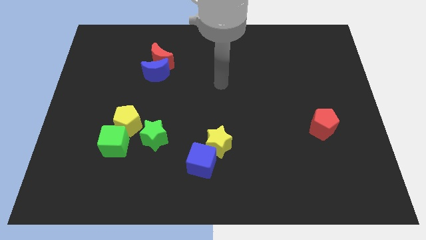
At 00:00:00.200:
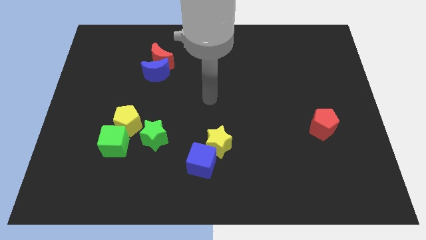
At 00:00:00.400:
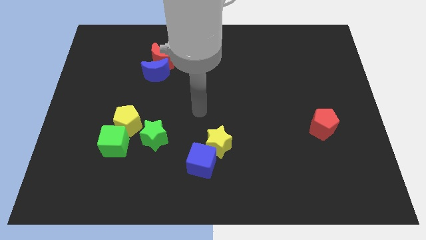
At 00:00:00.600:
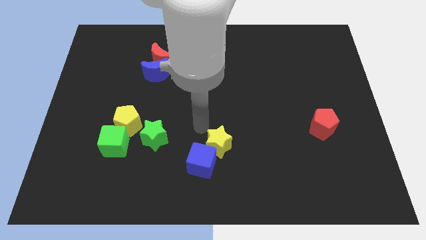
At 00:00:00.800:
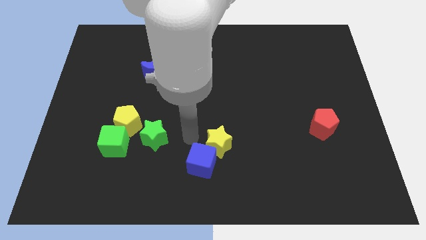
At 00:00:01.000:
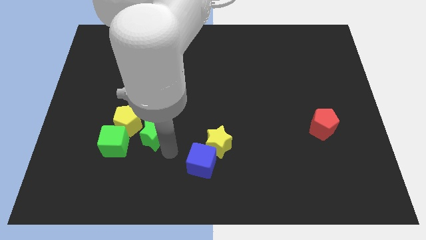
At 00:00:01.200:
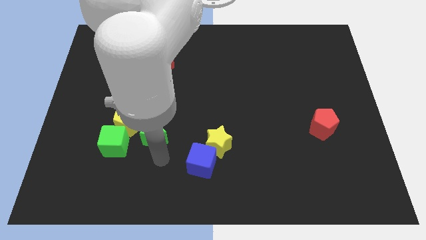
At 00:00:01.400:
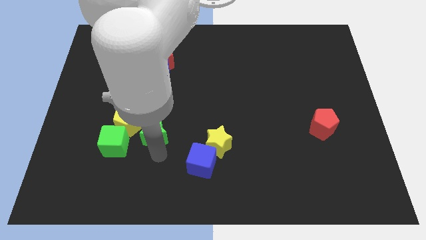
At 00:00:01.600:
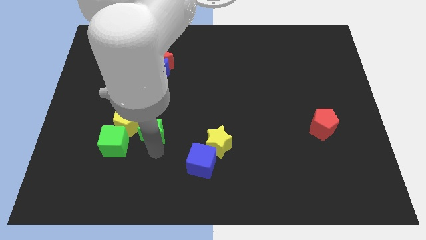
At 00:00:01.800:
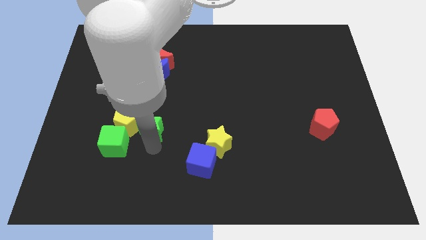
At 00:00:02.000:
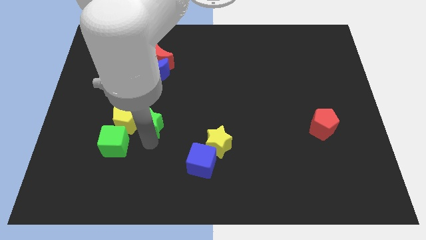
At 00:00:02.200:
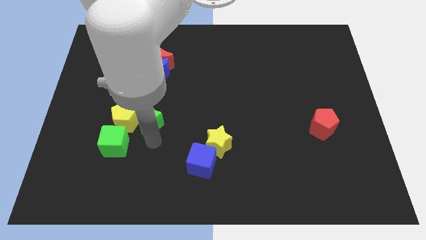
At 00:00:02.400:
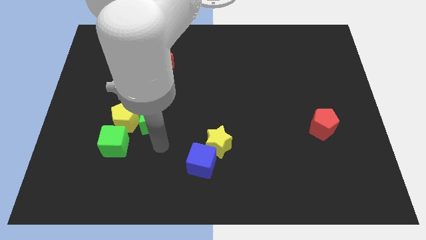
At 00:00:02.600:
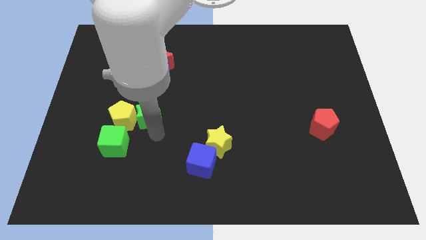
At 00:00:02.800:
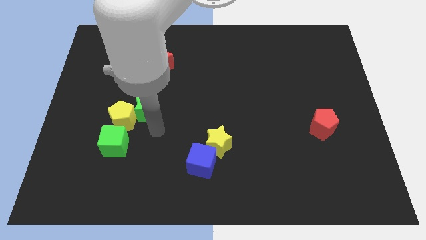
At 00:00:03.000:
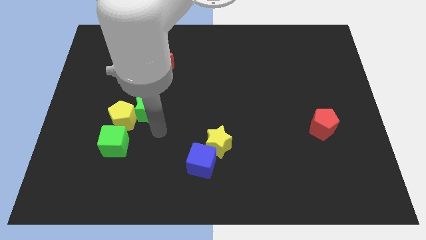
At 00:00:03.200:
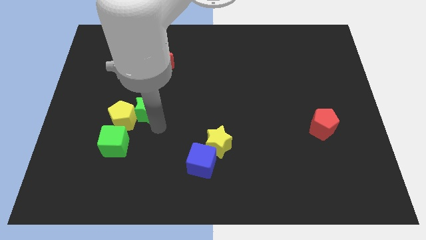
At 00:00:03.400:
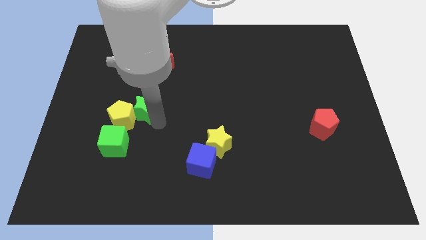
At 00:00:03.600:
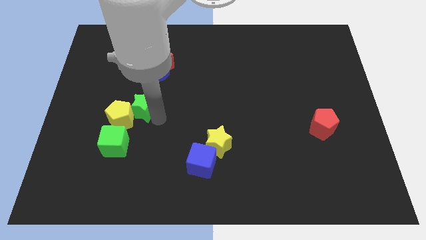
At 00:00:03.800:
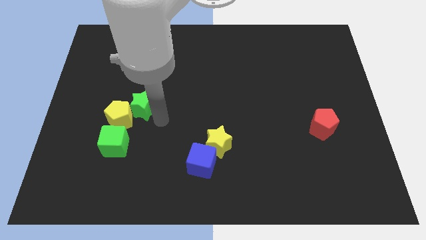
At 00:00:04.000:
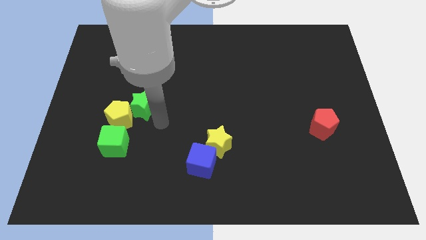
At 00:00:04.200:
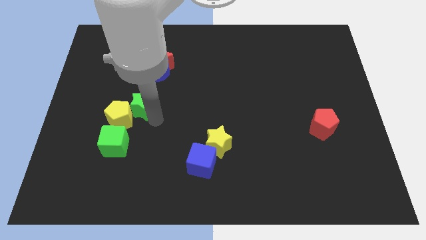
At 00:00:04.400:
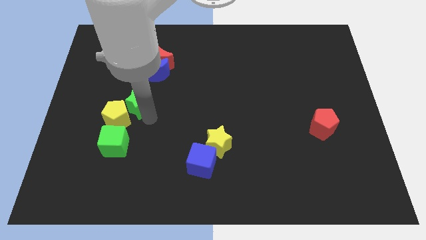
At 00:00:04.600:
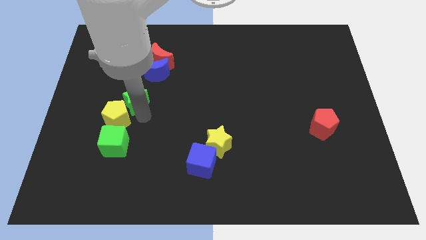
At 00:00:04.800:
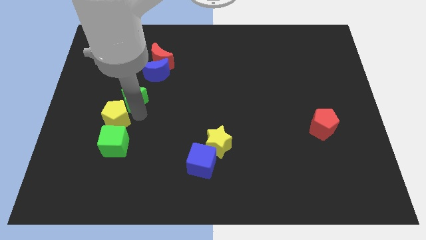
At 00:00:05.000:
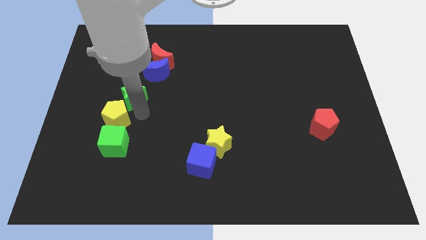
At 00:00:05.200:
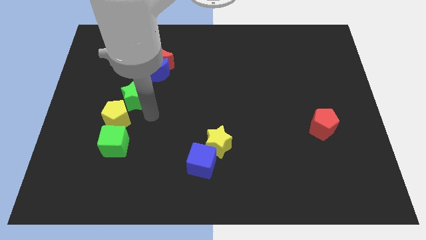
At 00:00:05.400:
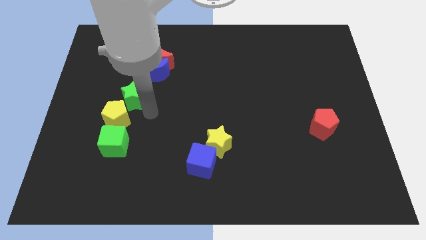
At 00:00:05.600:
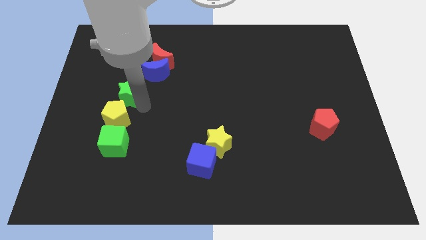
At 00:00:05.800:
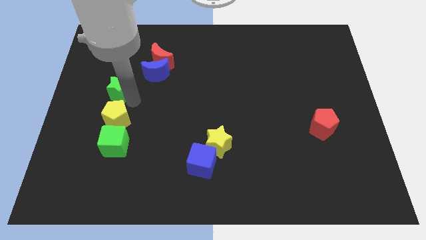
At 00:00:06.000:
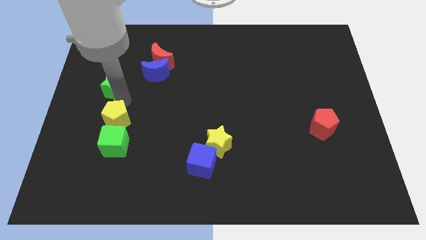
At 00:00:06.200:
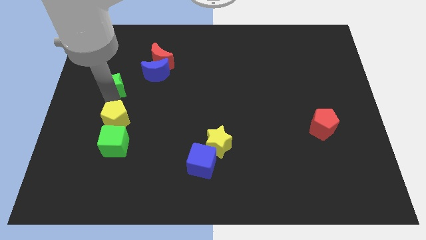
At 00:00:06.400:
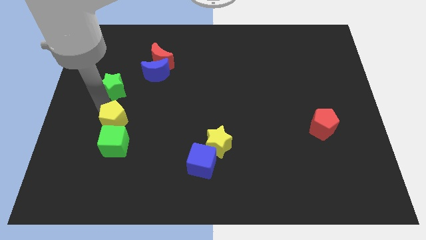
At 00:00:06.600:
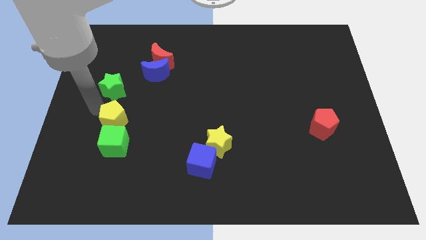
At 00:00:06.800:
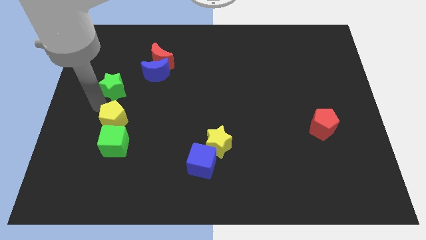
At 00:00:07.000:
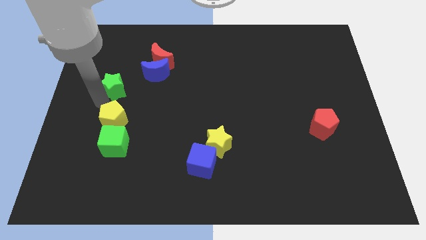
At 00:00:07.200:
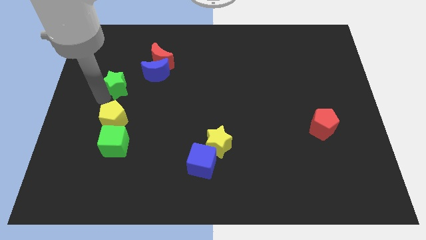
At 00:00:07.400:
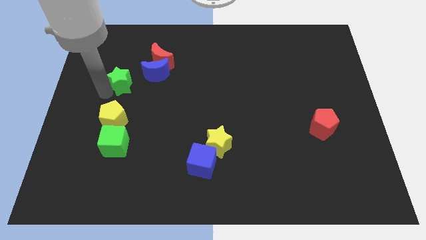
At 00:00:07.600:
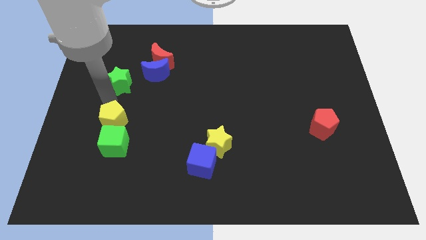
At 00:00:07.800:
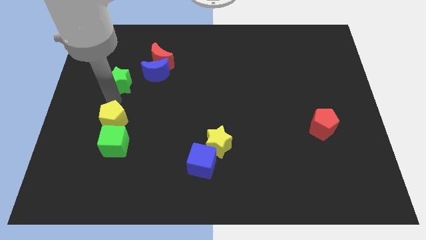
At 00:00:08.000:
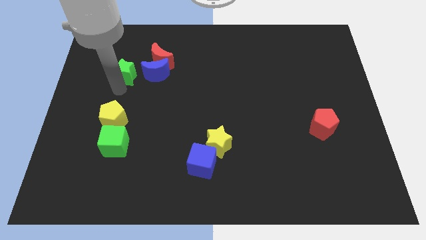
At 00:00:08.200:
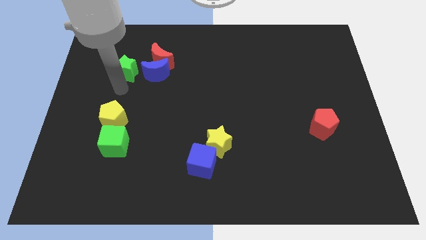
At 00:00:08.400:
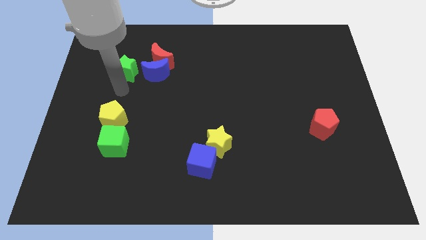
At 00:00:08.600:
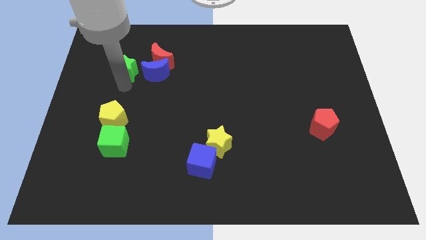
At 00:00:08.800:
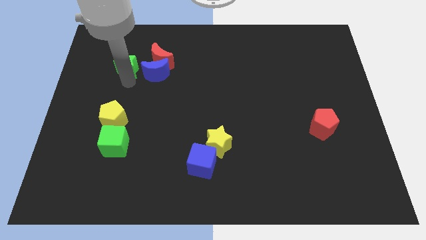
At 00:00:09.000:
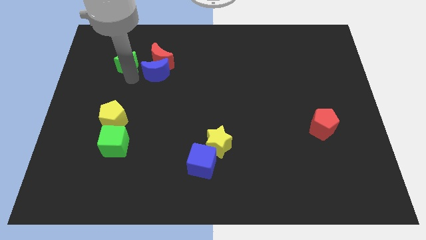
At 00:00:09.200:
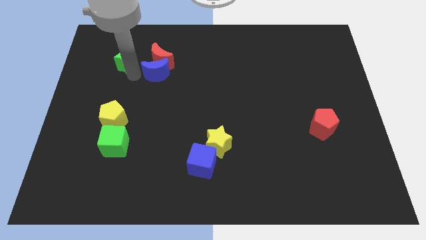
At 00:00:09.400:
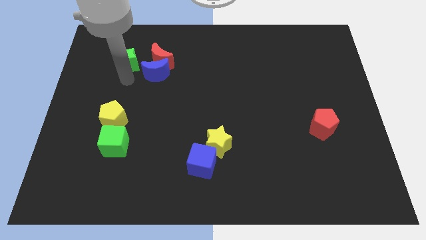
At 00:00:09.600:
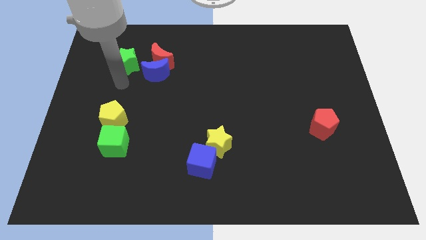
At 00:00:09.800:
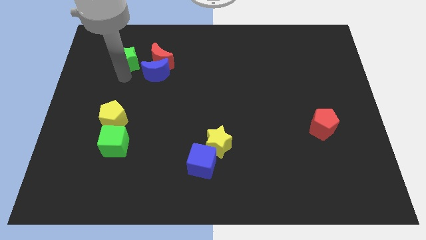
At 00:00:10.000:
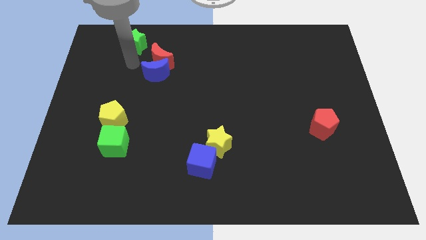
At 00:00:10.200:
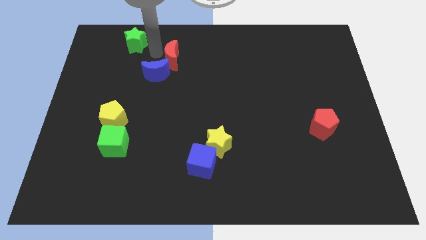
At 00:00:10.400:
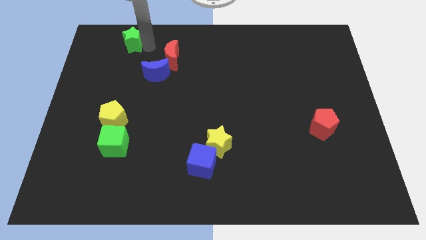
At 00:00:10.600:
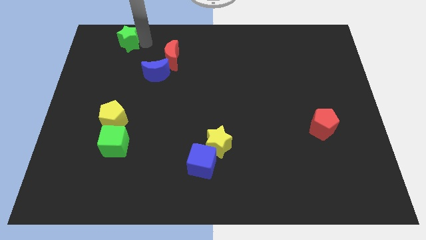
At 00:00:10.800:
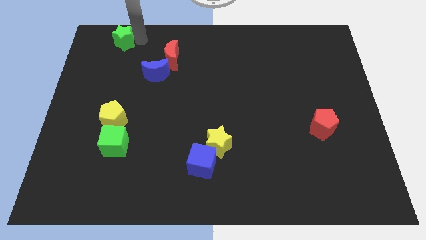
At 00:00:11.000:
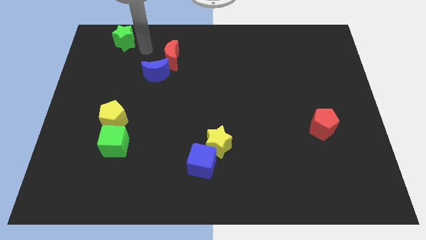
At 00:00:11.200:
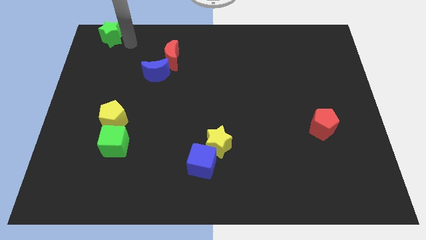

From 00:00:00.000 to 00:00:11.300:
slide the green star to the top left

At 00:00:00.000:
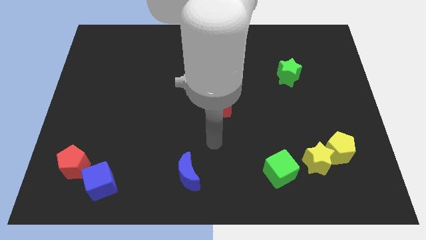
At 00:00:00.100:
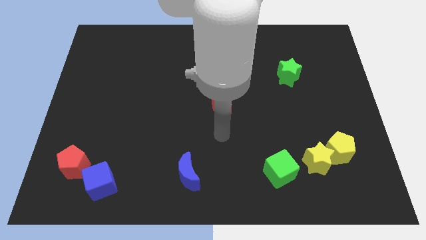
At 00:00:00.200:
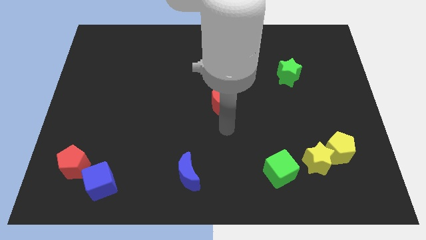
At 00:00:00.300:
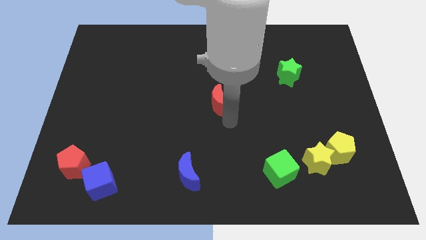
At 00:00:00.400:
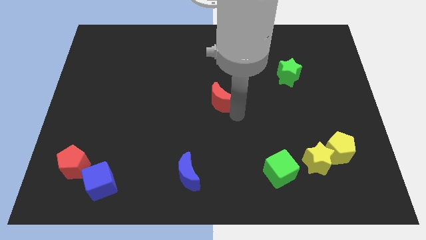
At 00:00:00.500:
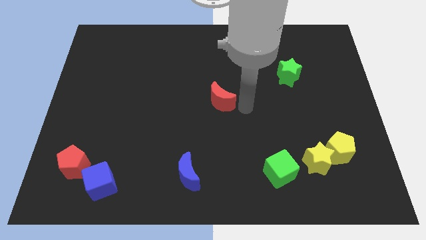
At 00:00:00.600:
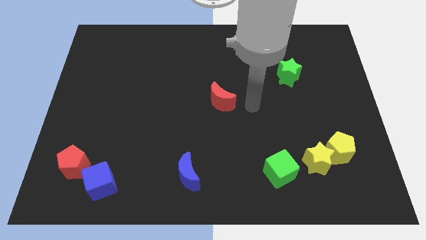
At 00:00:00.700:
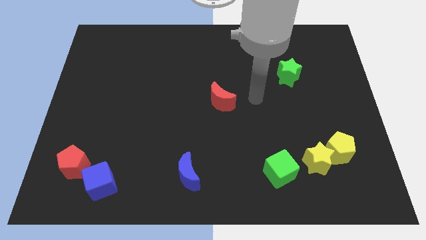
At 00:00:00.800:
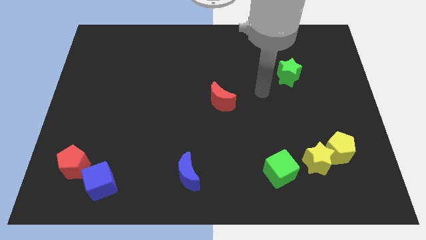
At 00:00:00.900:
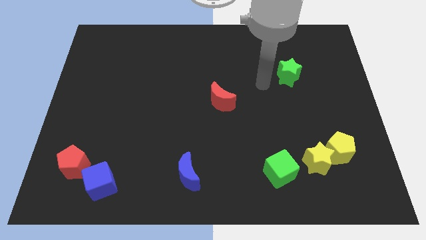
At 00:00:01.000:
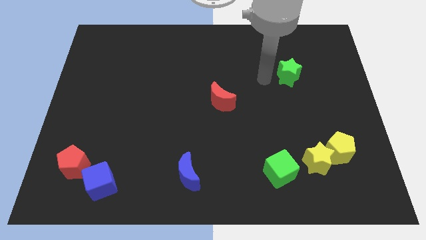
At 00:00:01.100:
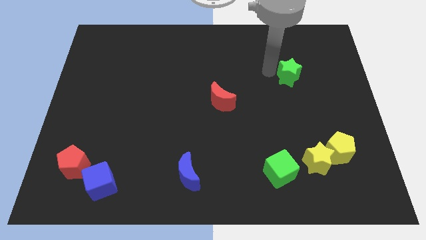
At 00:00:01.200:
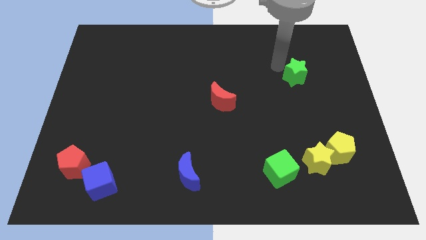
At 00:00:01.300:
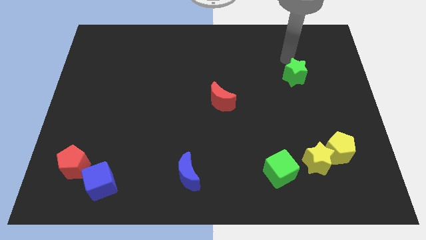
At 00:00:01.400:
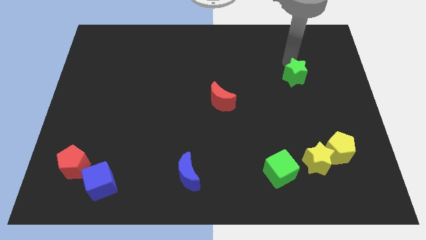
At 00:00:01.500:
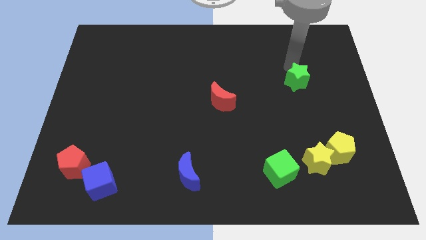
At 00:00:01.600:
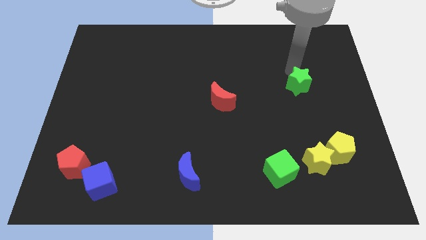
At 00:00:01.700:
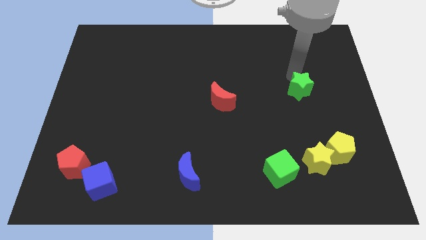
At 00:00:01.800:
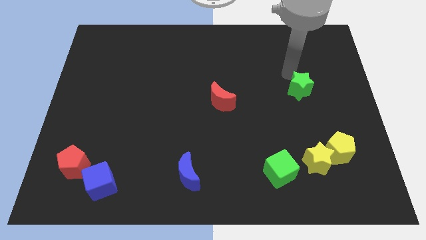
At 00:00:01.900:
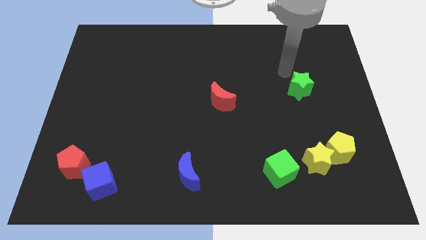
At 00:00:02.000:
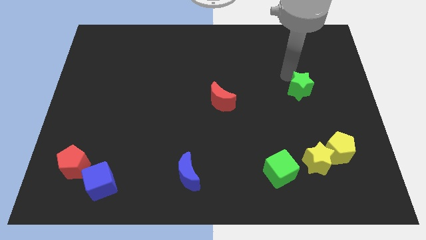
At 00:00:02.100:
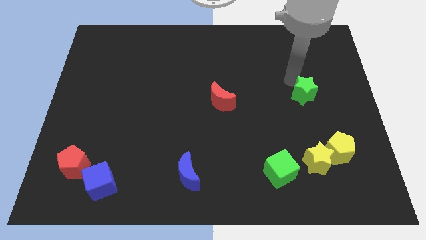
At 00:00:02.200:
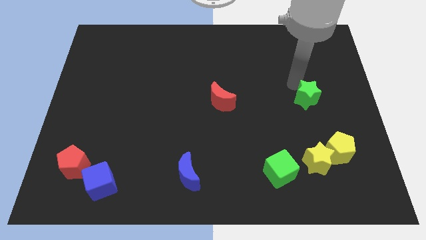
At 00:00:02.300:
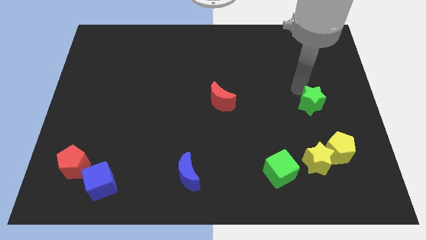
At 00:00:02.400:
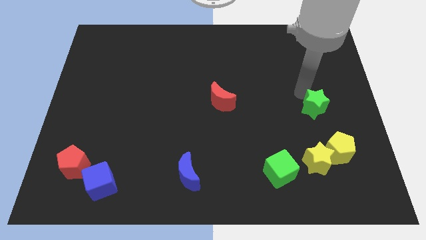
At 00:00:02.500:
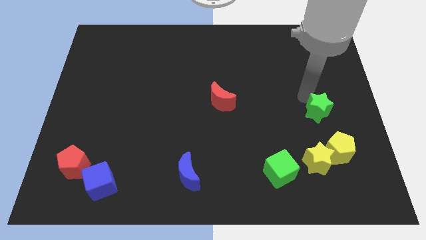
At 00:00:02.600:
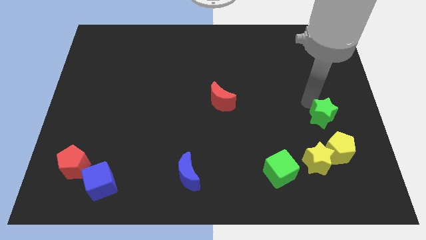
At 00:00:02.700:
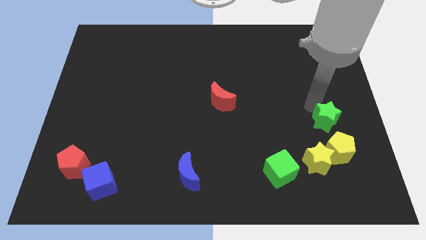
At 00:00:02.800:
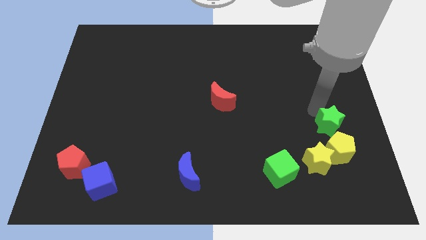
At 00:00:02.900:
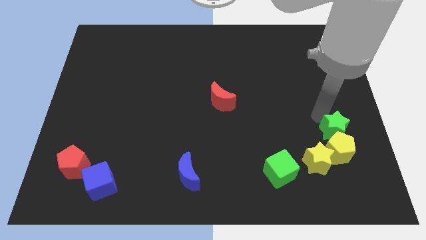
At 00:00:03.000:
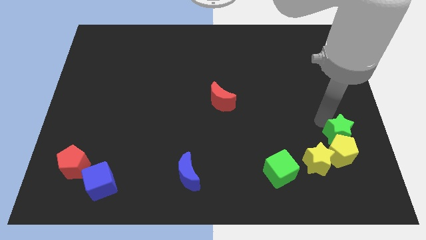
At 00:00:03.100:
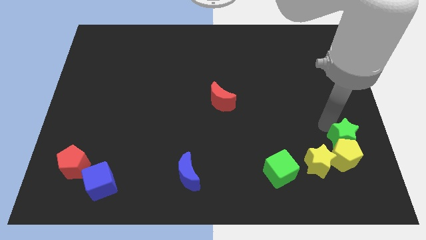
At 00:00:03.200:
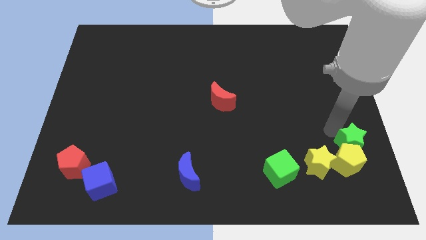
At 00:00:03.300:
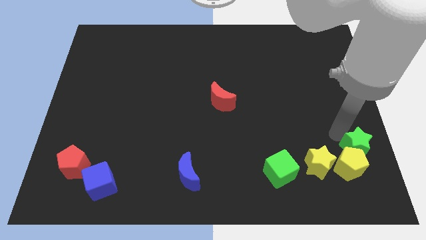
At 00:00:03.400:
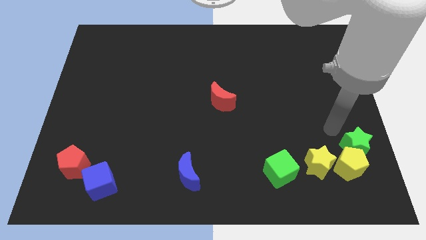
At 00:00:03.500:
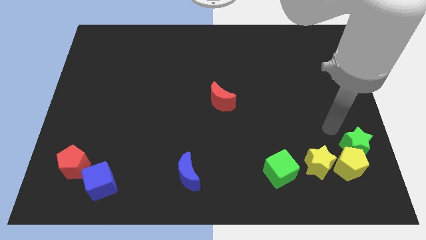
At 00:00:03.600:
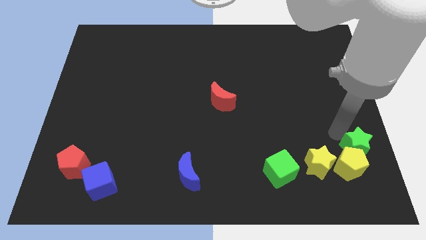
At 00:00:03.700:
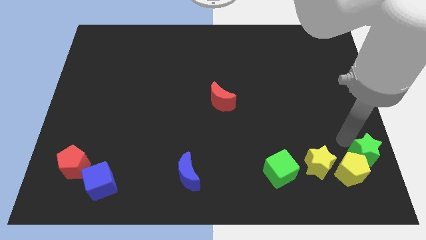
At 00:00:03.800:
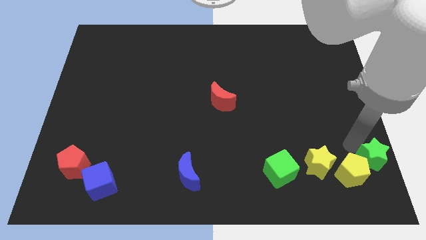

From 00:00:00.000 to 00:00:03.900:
push the green star to the bottom right corner
